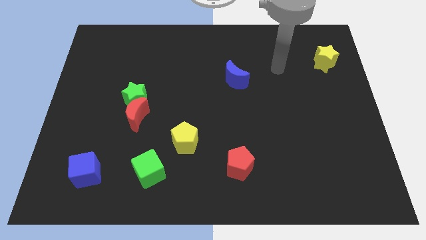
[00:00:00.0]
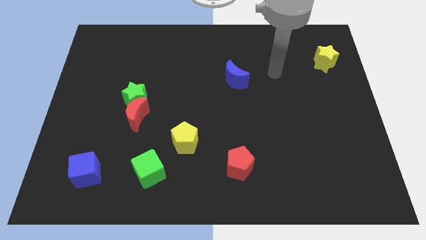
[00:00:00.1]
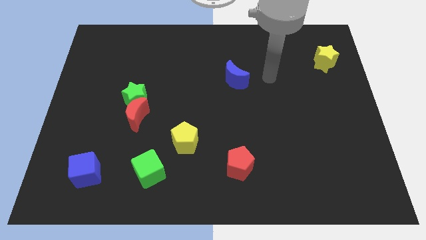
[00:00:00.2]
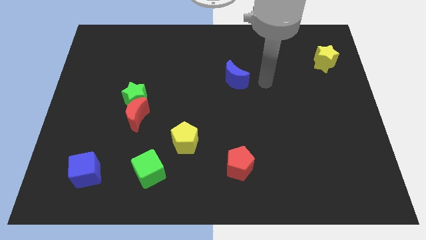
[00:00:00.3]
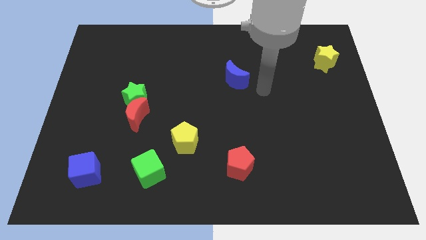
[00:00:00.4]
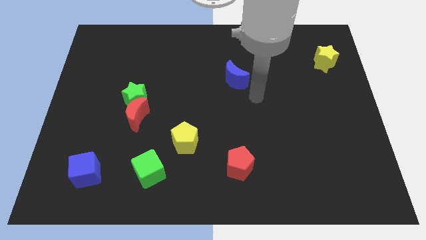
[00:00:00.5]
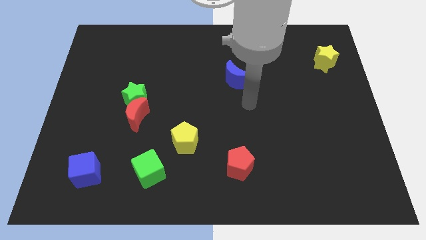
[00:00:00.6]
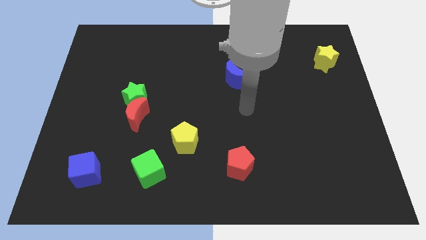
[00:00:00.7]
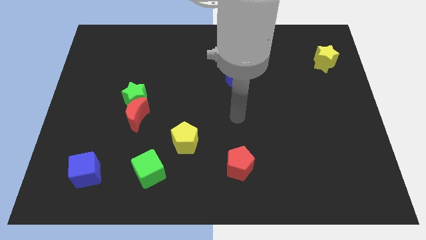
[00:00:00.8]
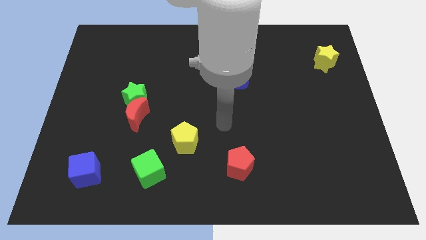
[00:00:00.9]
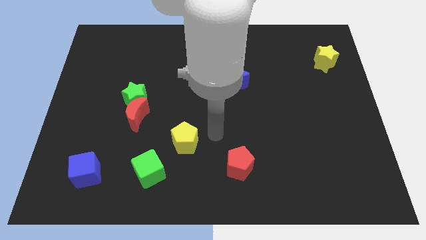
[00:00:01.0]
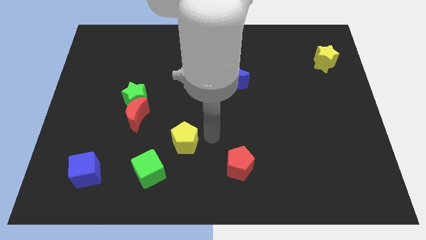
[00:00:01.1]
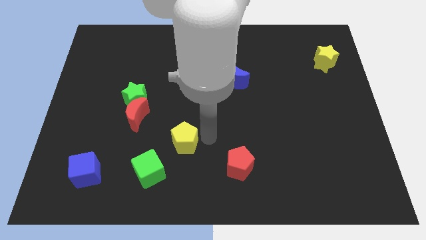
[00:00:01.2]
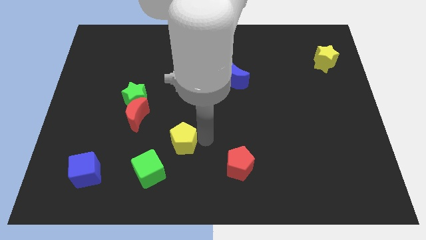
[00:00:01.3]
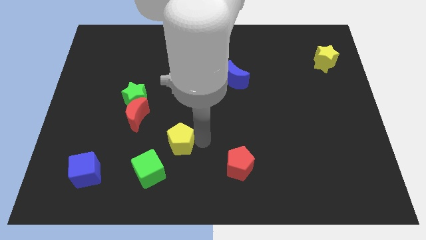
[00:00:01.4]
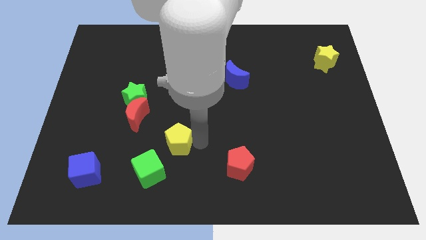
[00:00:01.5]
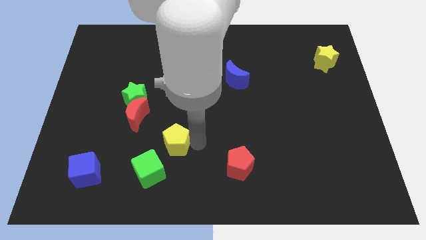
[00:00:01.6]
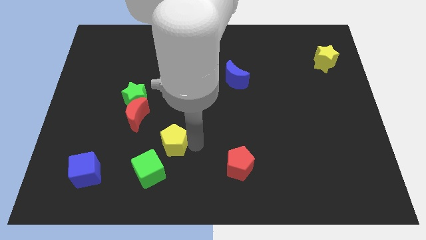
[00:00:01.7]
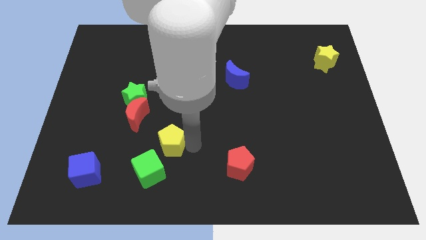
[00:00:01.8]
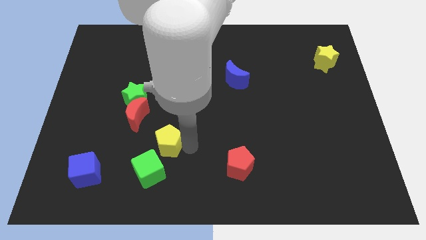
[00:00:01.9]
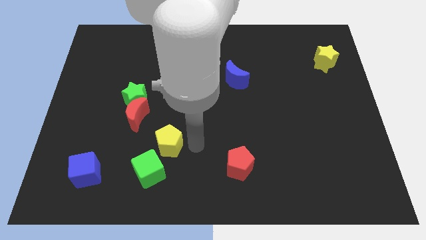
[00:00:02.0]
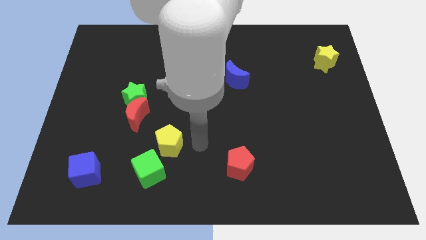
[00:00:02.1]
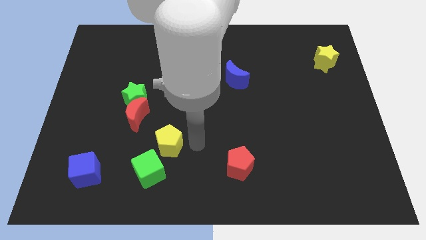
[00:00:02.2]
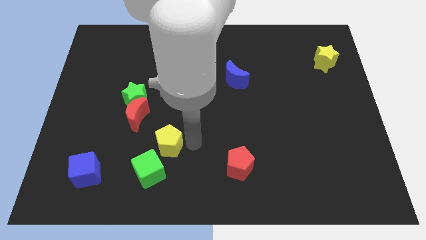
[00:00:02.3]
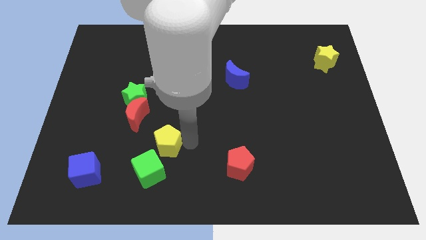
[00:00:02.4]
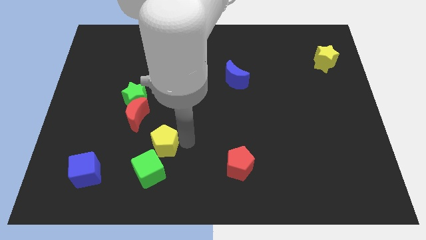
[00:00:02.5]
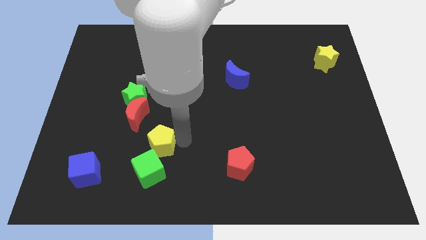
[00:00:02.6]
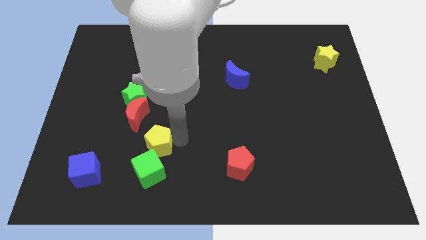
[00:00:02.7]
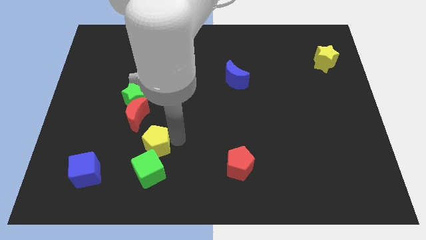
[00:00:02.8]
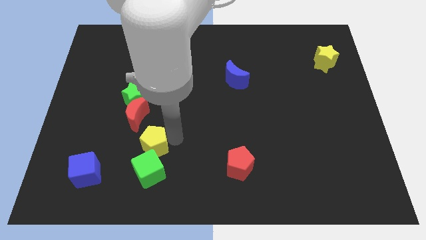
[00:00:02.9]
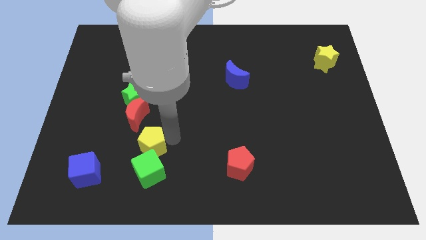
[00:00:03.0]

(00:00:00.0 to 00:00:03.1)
slide the yellow pentagon somewhat to the left

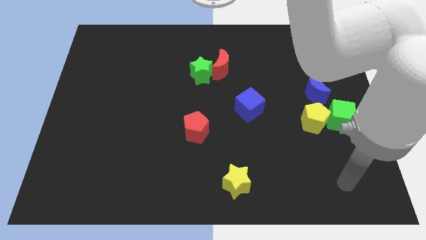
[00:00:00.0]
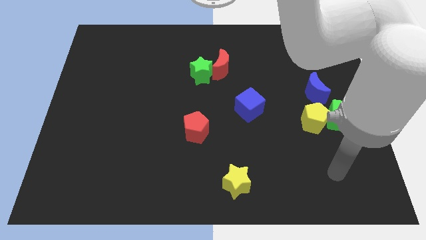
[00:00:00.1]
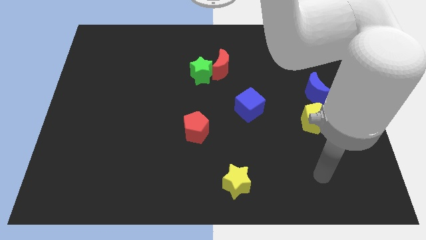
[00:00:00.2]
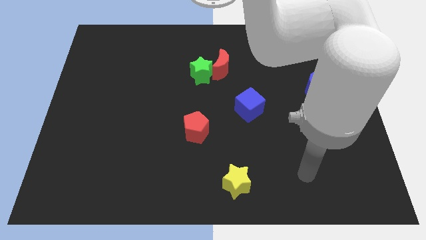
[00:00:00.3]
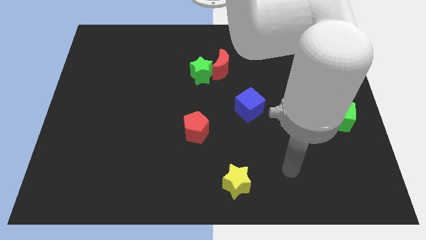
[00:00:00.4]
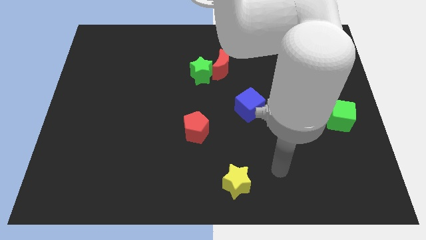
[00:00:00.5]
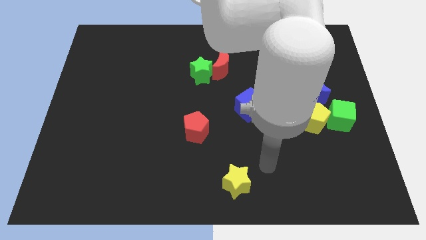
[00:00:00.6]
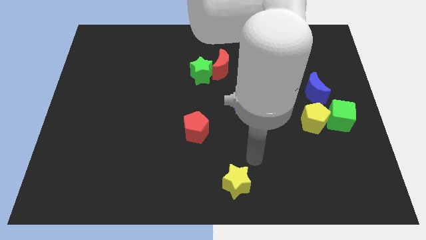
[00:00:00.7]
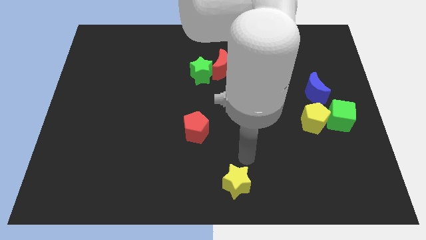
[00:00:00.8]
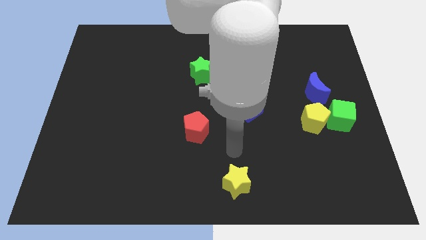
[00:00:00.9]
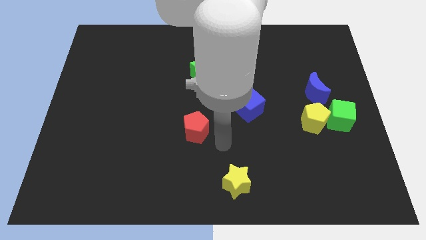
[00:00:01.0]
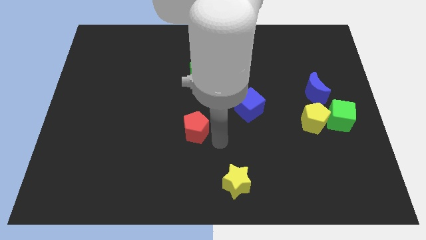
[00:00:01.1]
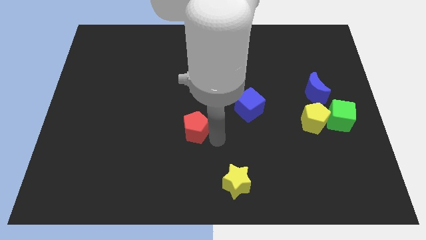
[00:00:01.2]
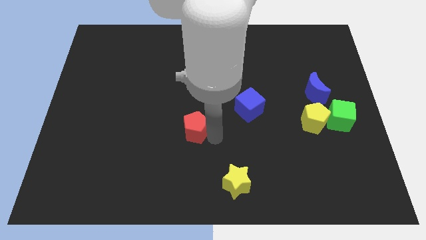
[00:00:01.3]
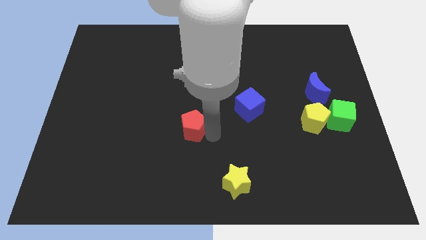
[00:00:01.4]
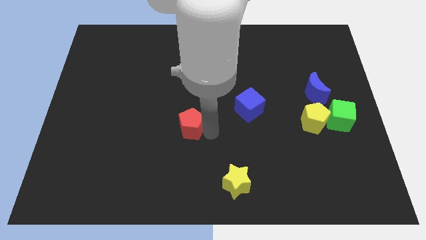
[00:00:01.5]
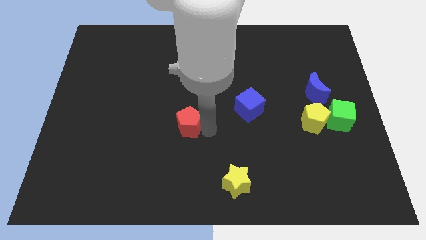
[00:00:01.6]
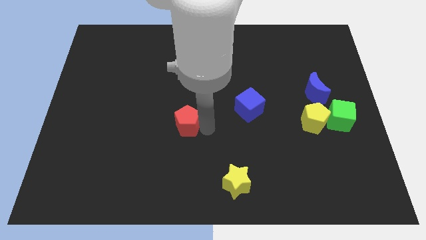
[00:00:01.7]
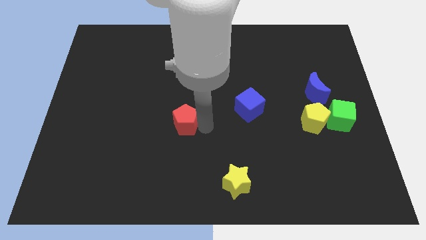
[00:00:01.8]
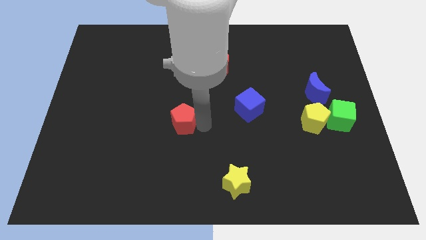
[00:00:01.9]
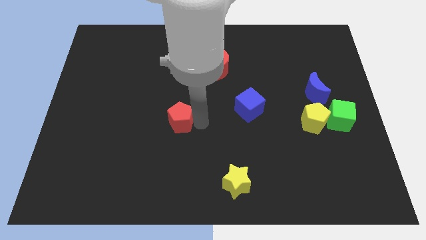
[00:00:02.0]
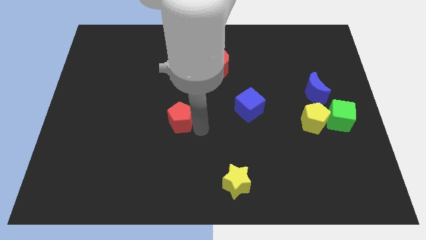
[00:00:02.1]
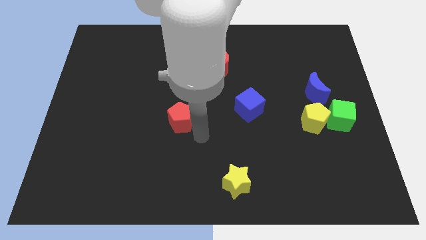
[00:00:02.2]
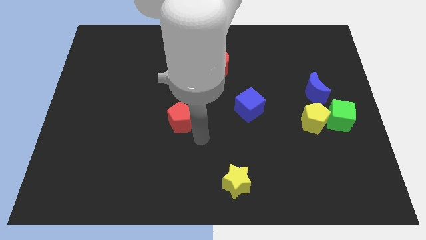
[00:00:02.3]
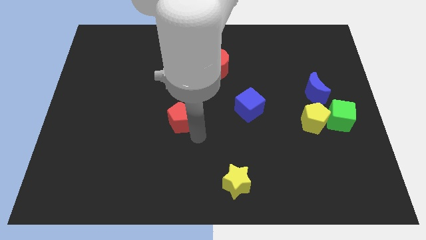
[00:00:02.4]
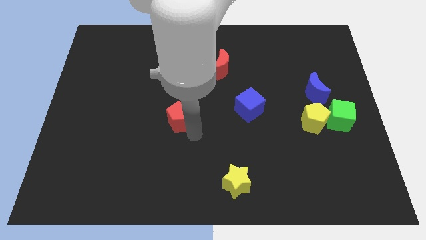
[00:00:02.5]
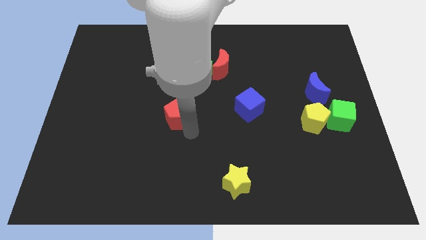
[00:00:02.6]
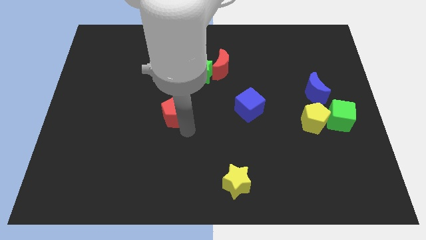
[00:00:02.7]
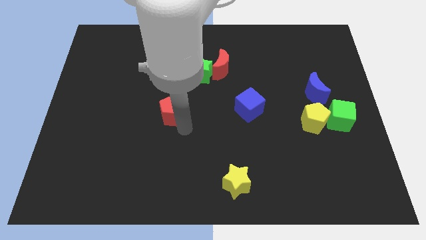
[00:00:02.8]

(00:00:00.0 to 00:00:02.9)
push the red pentagon a little upwards and left

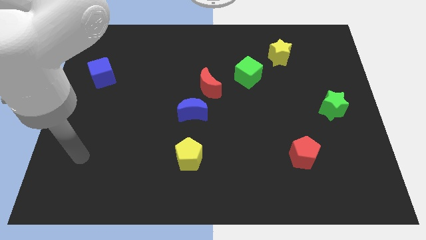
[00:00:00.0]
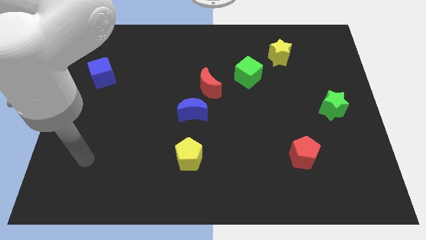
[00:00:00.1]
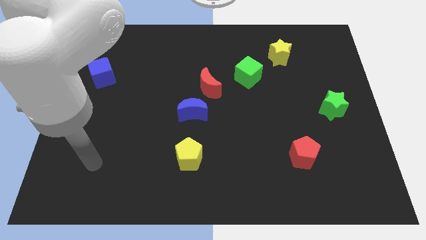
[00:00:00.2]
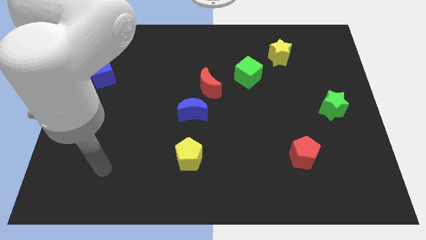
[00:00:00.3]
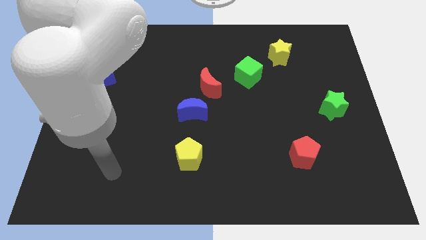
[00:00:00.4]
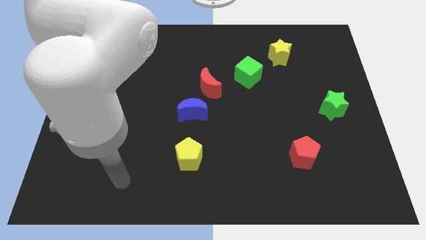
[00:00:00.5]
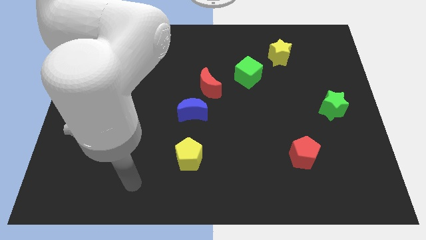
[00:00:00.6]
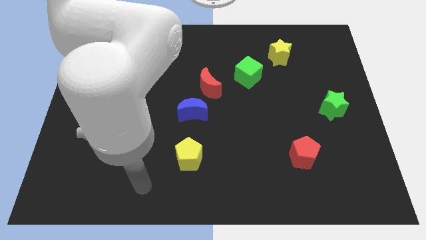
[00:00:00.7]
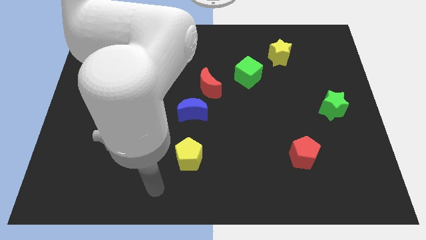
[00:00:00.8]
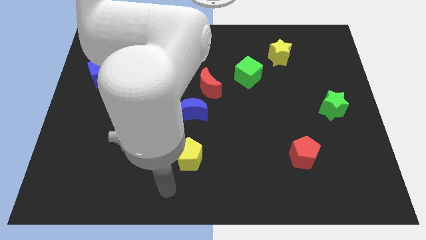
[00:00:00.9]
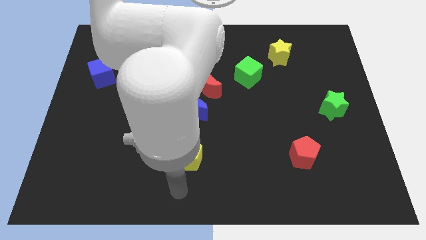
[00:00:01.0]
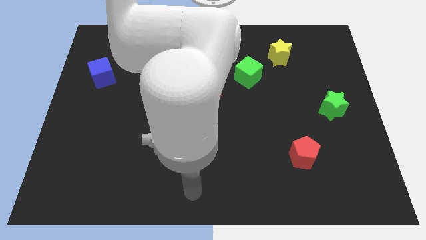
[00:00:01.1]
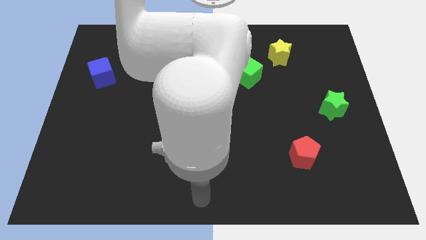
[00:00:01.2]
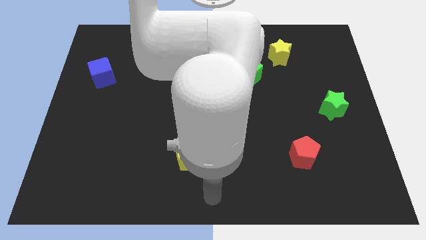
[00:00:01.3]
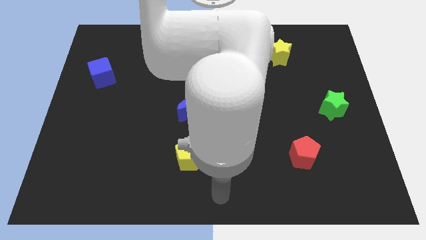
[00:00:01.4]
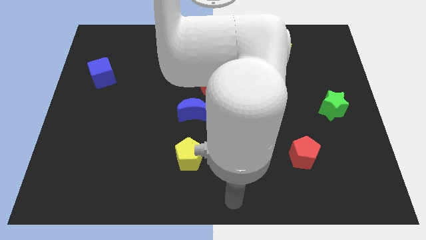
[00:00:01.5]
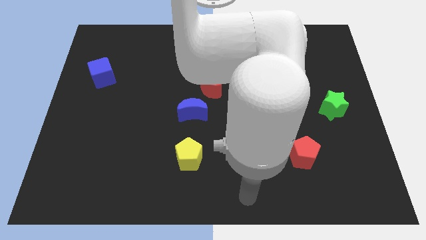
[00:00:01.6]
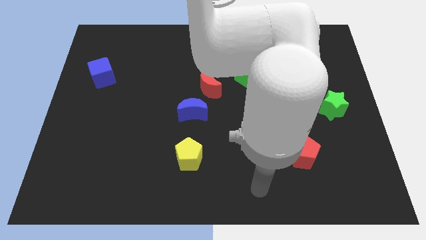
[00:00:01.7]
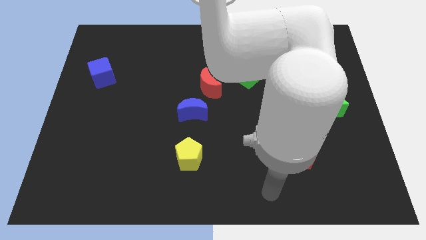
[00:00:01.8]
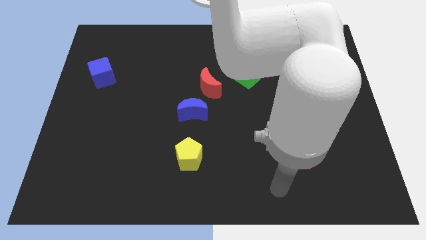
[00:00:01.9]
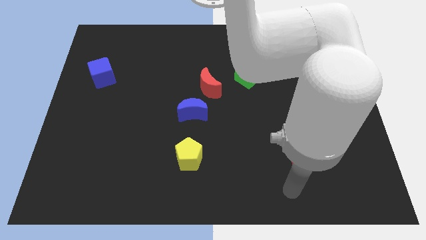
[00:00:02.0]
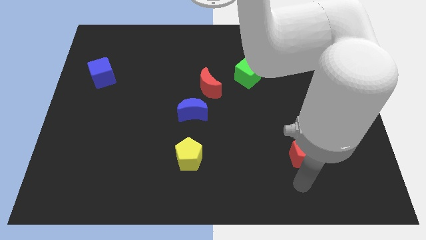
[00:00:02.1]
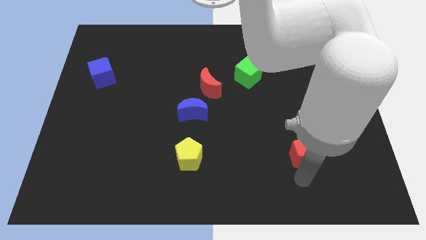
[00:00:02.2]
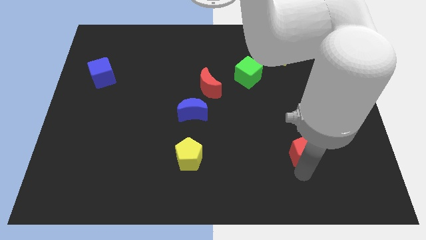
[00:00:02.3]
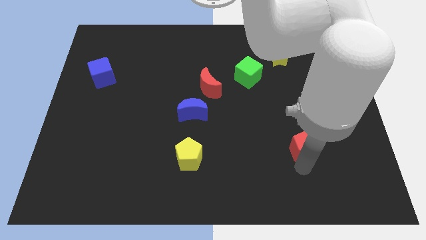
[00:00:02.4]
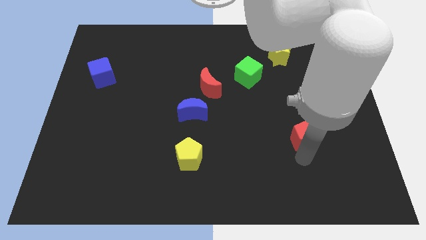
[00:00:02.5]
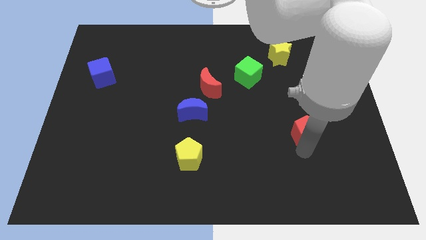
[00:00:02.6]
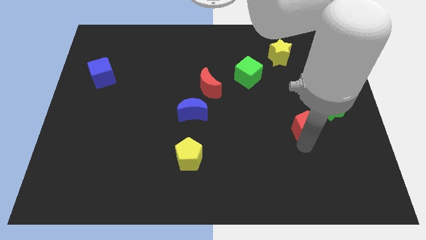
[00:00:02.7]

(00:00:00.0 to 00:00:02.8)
push the red pentagon a little bit up
